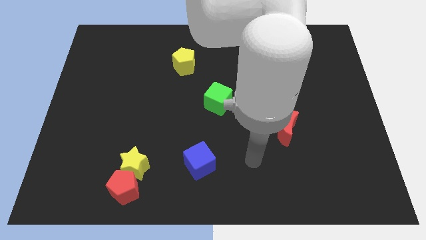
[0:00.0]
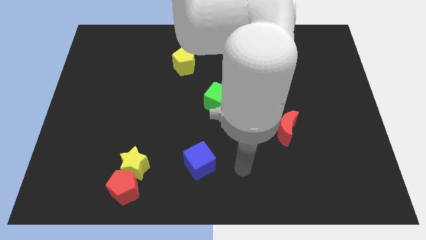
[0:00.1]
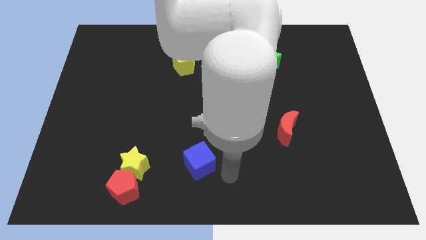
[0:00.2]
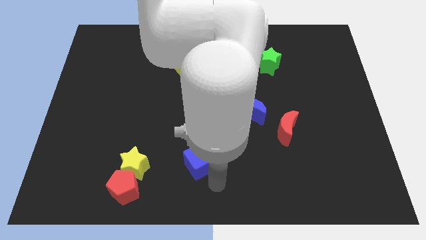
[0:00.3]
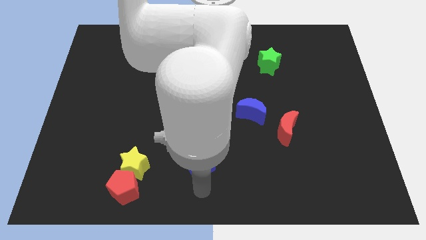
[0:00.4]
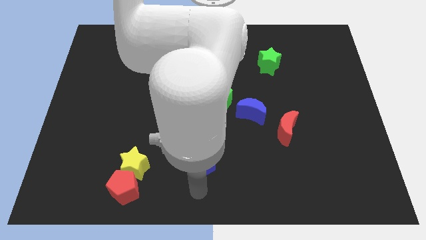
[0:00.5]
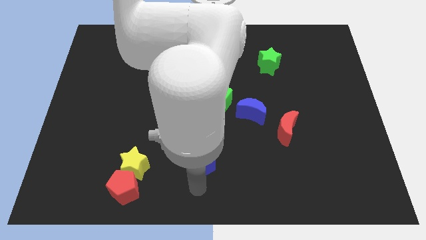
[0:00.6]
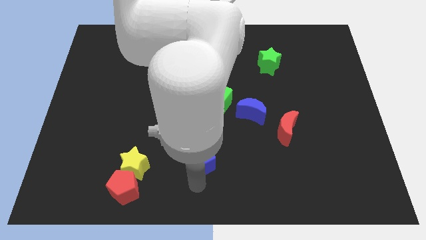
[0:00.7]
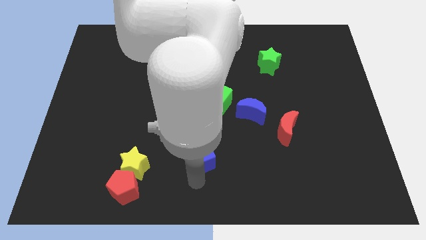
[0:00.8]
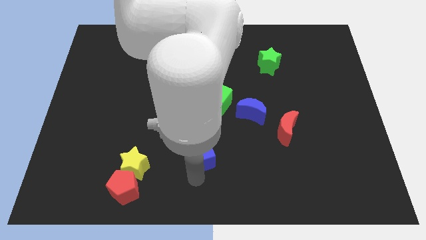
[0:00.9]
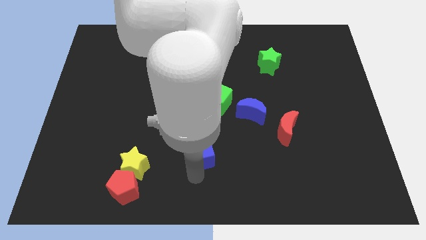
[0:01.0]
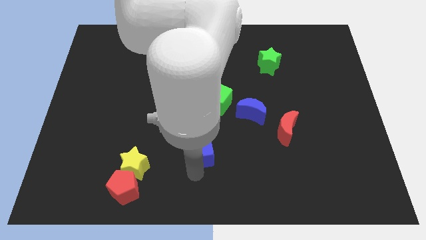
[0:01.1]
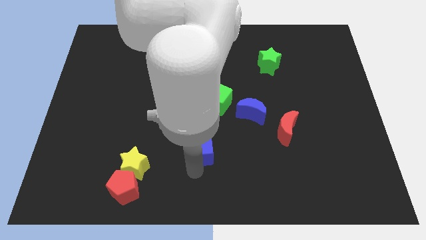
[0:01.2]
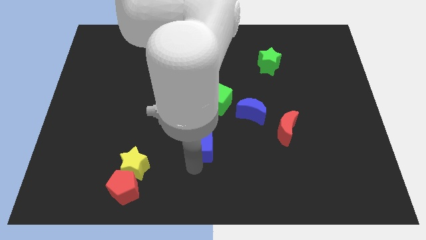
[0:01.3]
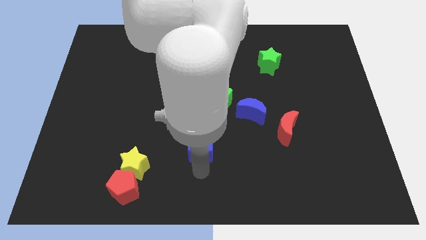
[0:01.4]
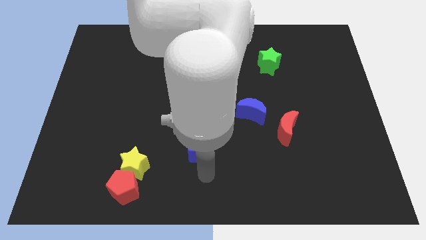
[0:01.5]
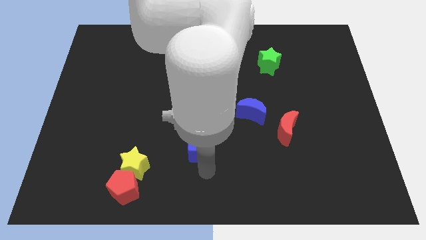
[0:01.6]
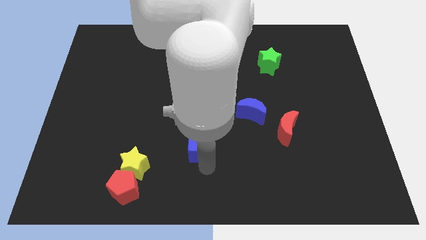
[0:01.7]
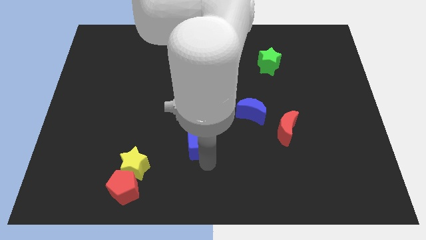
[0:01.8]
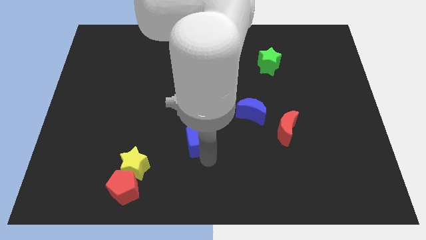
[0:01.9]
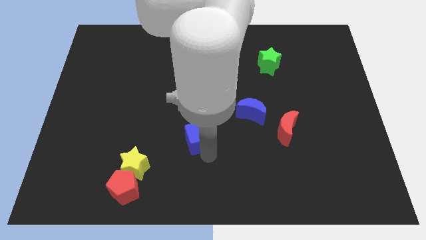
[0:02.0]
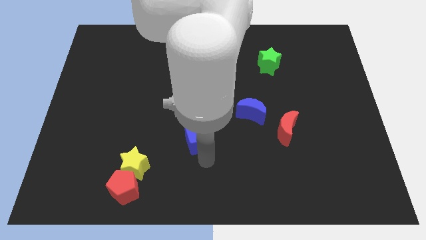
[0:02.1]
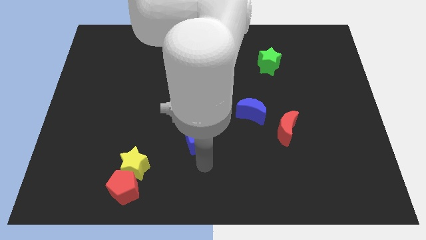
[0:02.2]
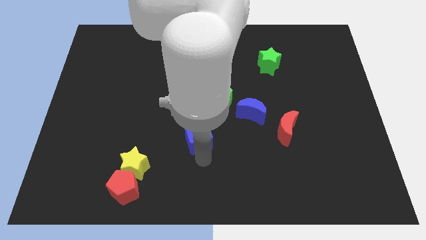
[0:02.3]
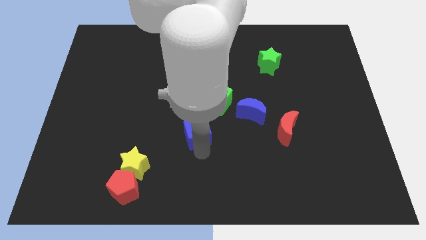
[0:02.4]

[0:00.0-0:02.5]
push the blue cube a little bit up

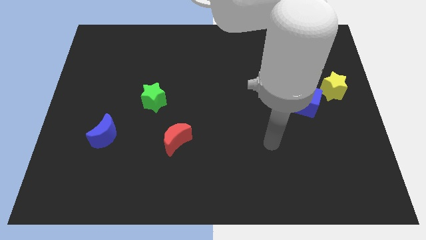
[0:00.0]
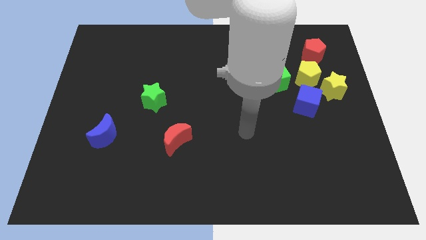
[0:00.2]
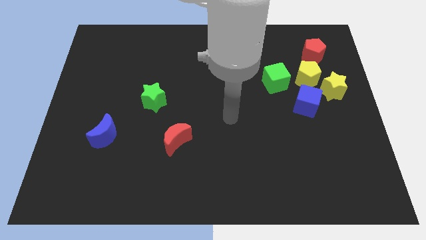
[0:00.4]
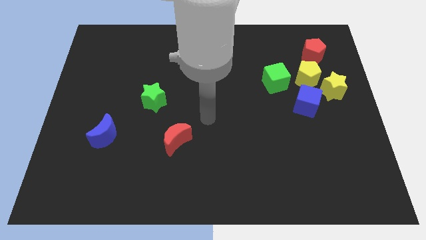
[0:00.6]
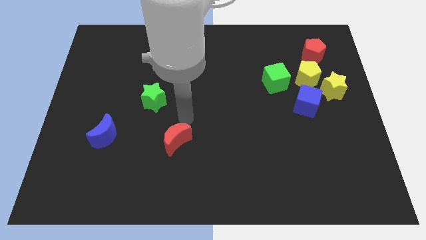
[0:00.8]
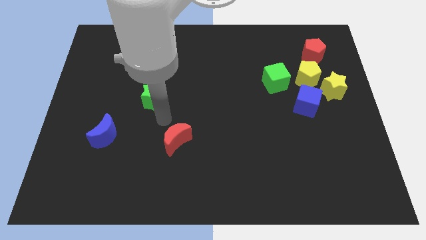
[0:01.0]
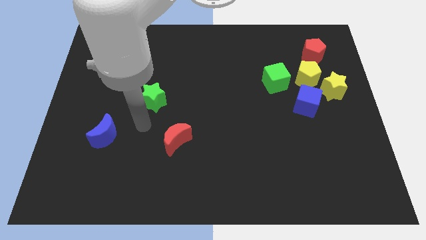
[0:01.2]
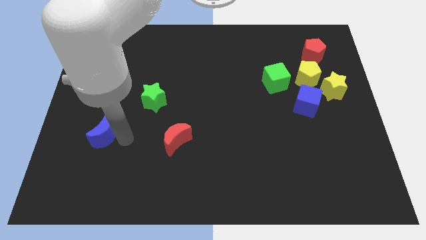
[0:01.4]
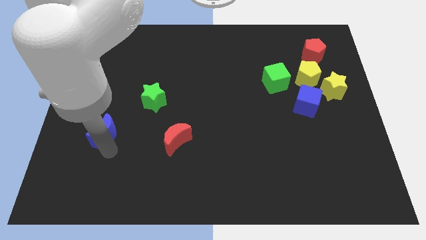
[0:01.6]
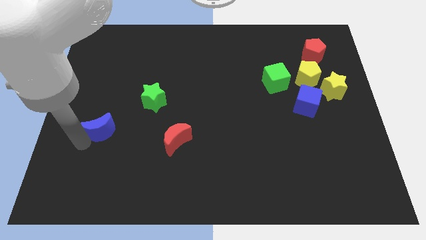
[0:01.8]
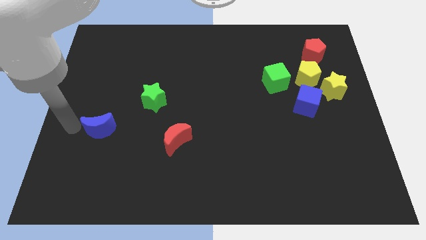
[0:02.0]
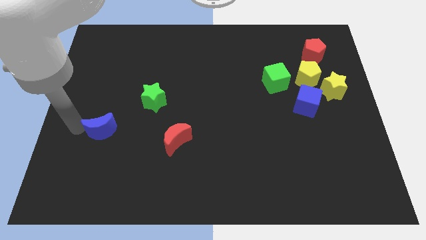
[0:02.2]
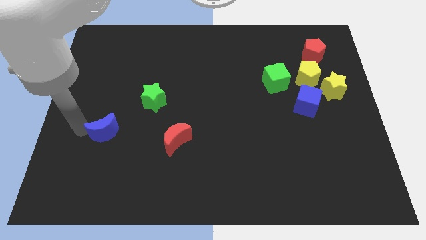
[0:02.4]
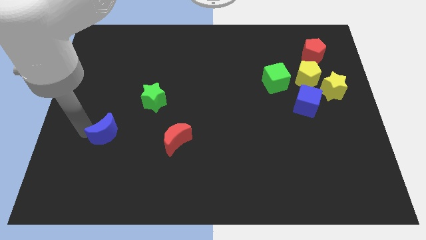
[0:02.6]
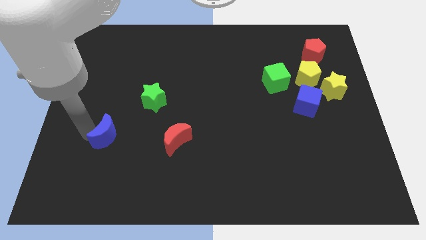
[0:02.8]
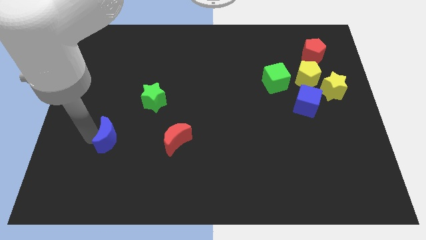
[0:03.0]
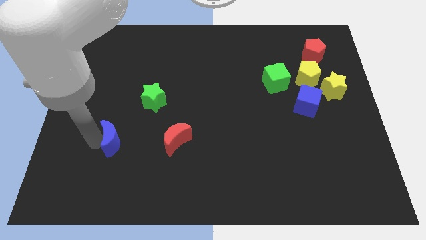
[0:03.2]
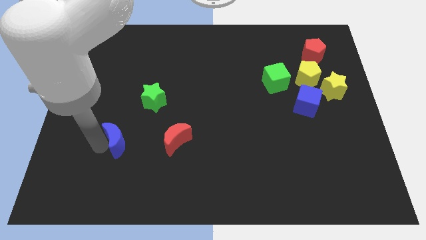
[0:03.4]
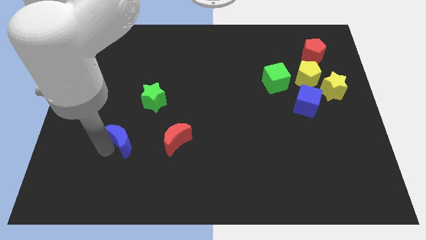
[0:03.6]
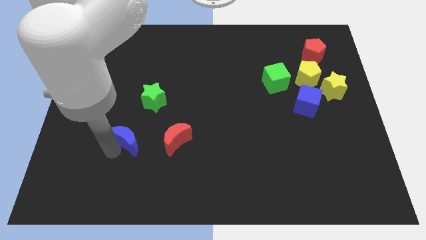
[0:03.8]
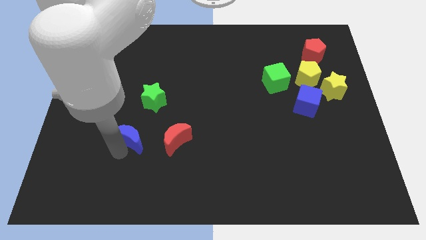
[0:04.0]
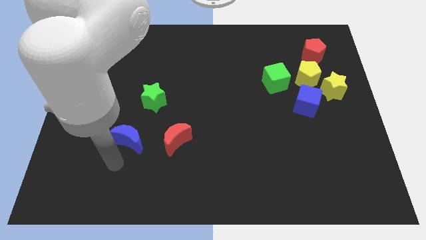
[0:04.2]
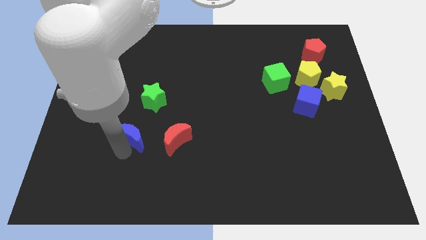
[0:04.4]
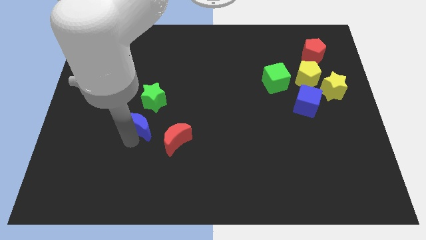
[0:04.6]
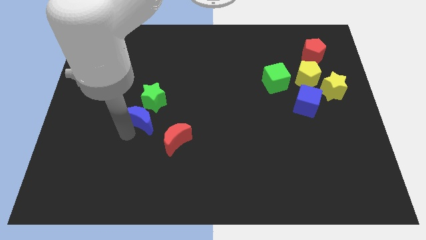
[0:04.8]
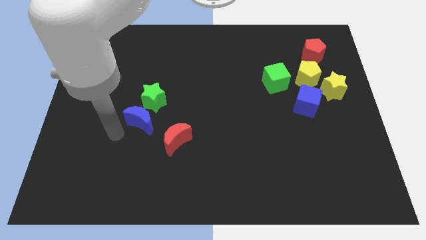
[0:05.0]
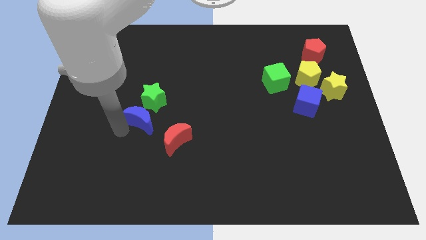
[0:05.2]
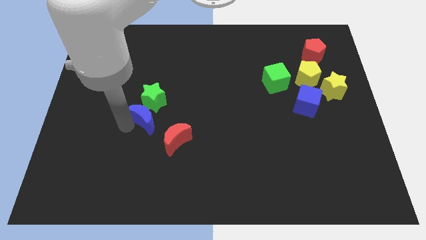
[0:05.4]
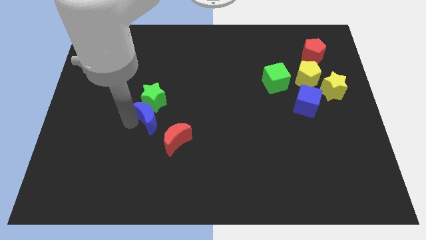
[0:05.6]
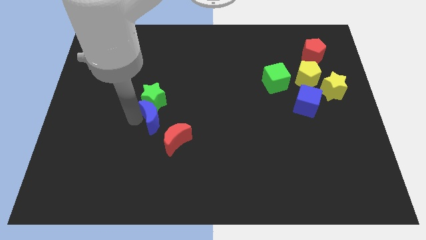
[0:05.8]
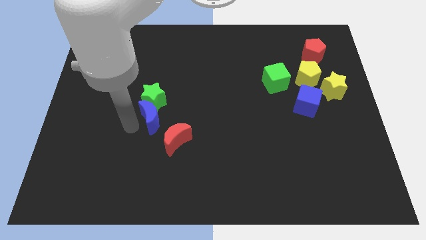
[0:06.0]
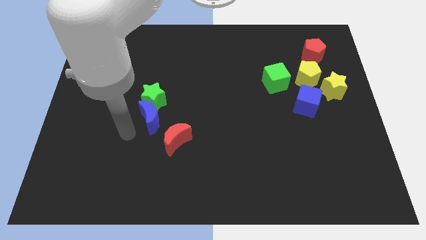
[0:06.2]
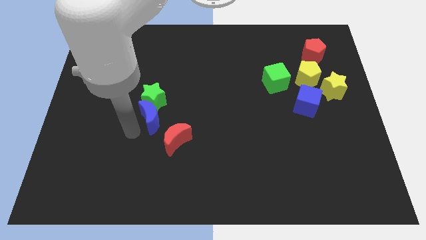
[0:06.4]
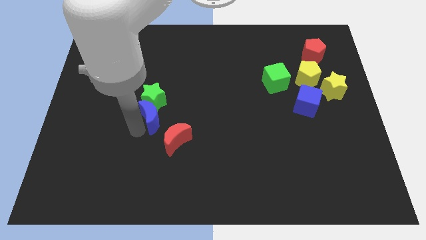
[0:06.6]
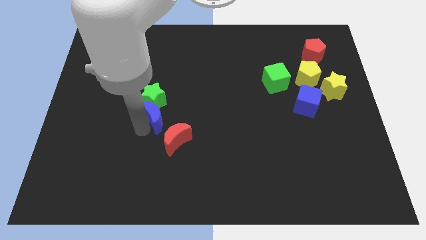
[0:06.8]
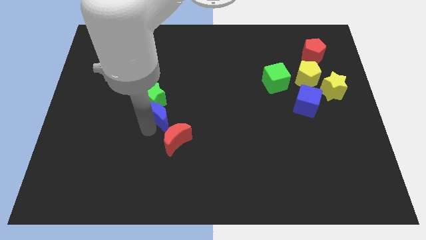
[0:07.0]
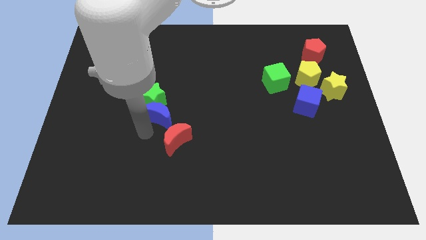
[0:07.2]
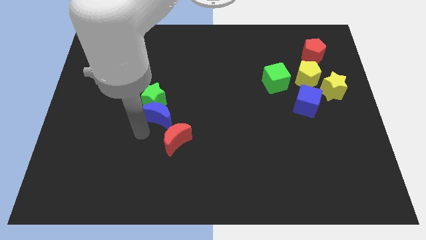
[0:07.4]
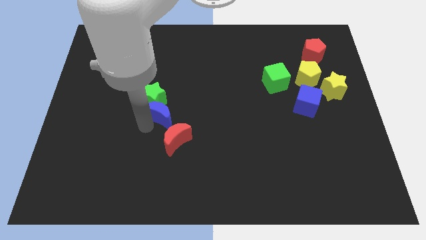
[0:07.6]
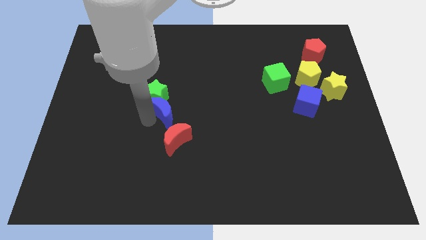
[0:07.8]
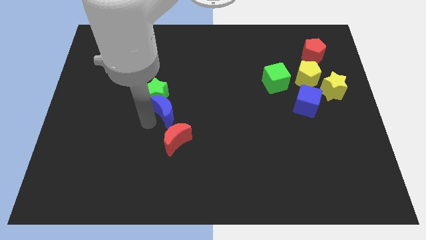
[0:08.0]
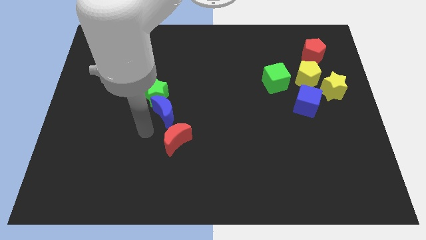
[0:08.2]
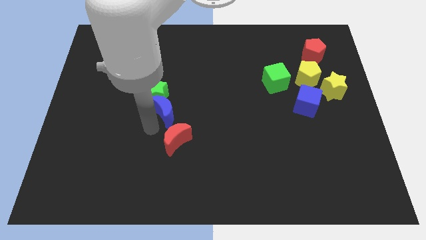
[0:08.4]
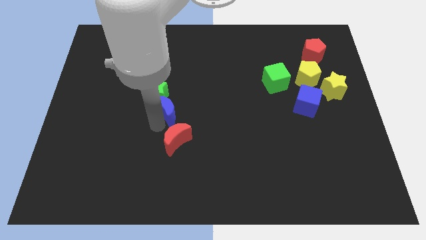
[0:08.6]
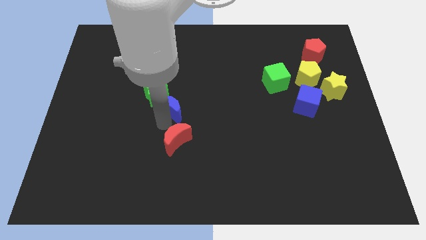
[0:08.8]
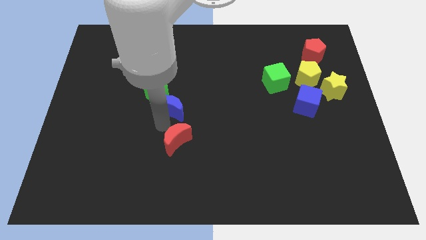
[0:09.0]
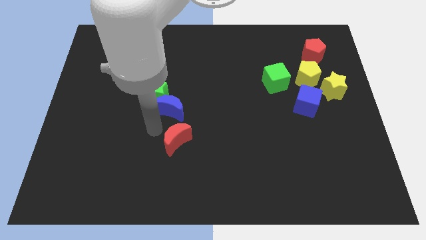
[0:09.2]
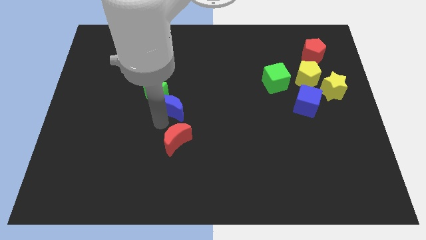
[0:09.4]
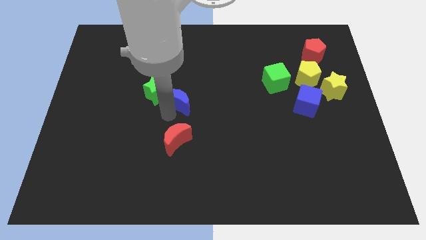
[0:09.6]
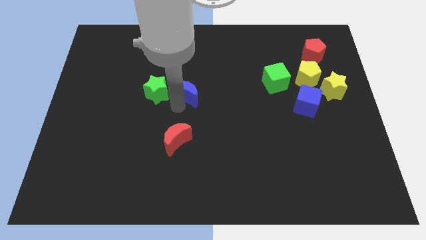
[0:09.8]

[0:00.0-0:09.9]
push the blue moon up and right diagonally

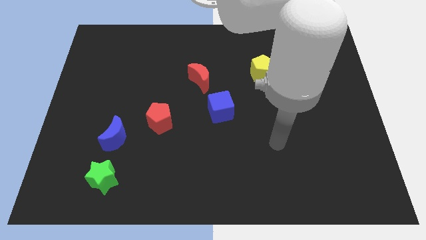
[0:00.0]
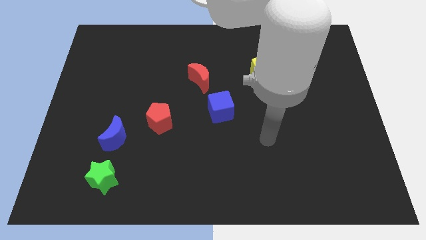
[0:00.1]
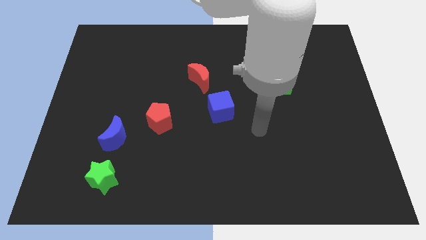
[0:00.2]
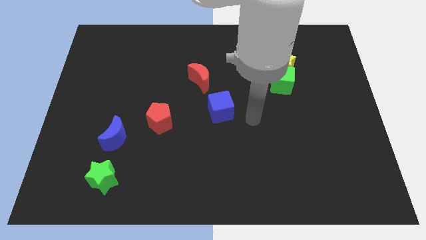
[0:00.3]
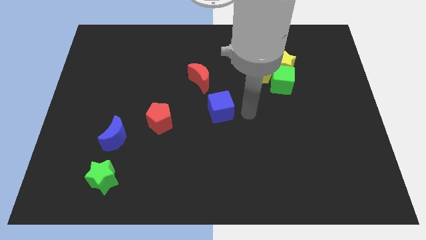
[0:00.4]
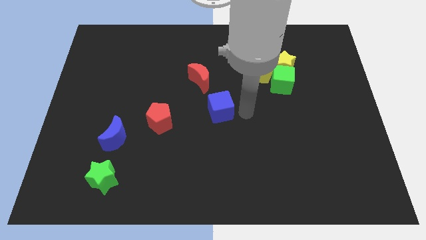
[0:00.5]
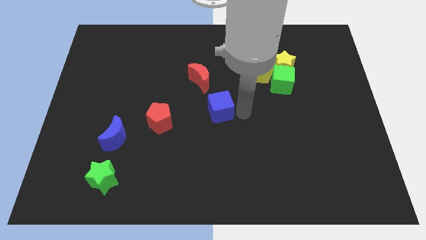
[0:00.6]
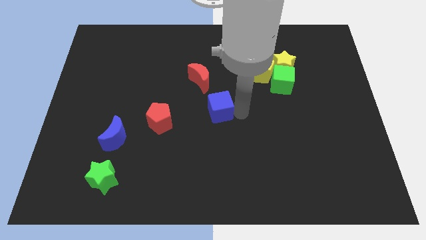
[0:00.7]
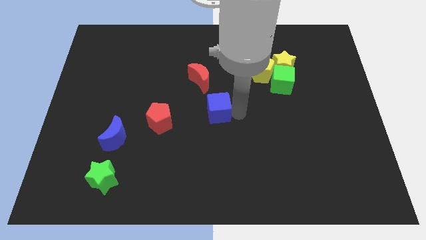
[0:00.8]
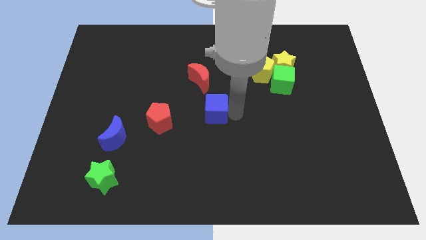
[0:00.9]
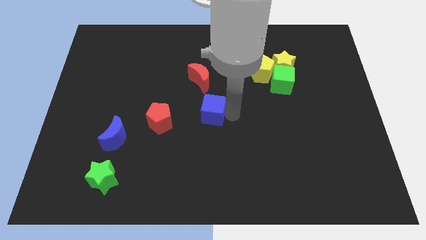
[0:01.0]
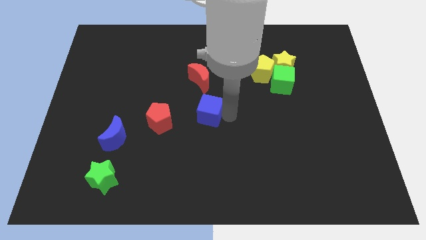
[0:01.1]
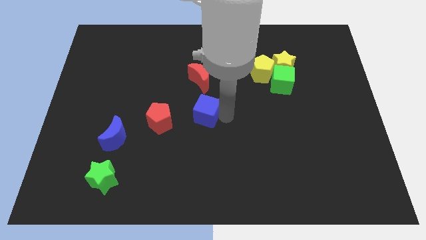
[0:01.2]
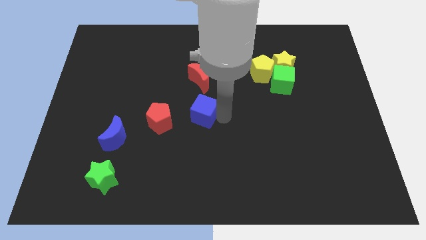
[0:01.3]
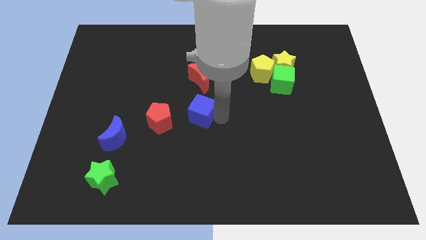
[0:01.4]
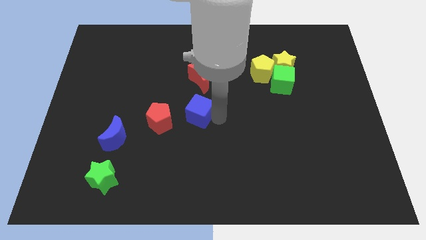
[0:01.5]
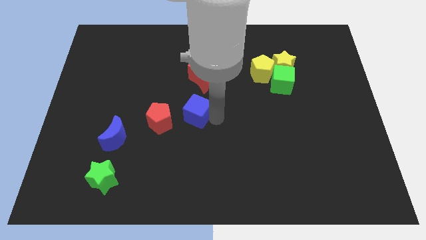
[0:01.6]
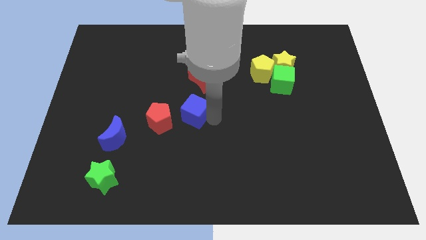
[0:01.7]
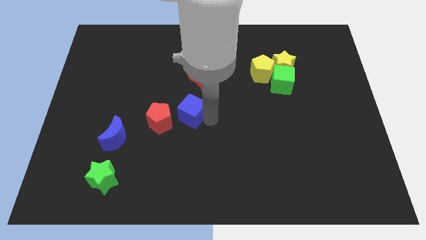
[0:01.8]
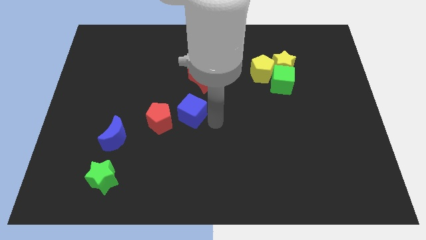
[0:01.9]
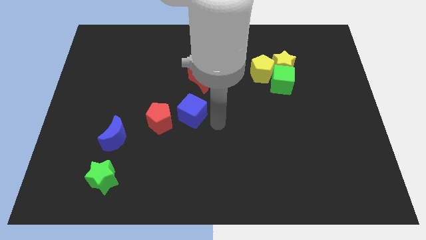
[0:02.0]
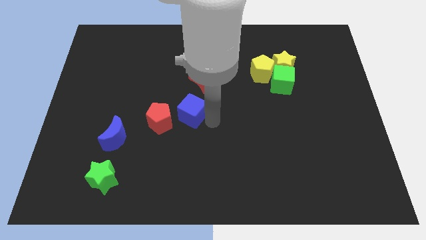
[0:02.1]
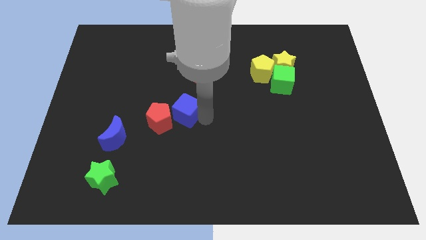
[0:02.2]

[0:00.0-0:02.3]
slightly move the blue cube to the left
